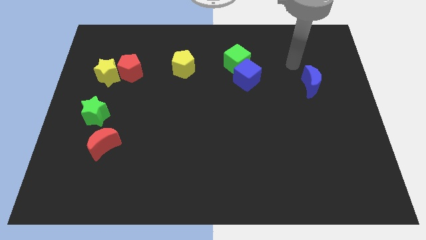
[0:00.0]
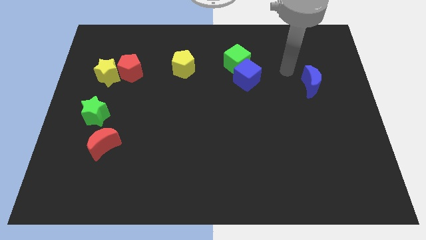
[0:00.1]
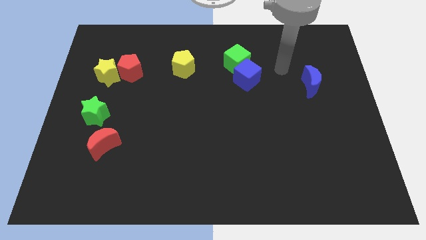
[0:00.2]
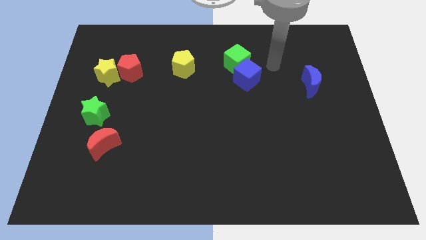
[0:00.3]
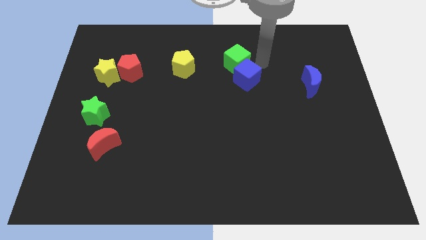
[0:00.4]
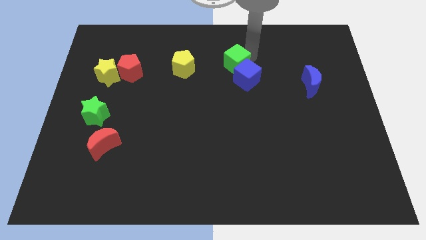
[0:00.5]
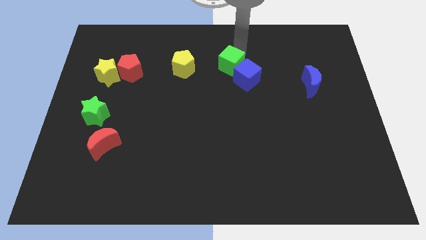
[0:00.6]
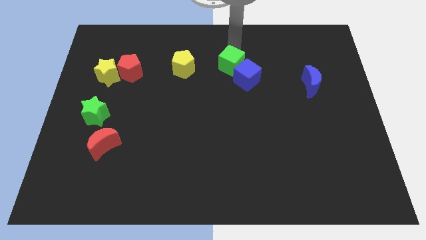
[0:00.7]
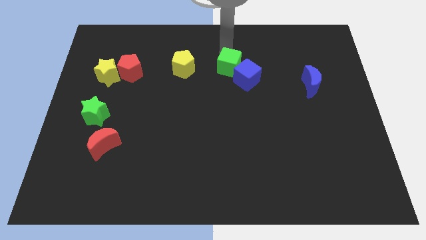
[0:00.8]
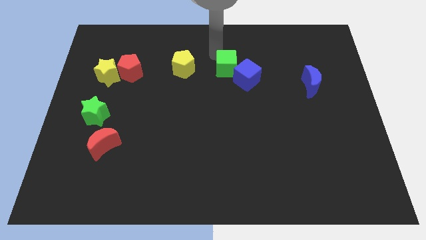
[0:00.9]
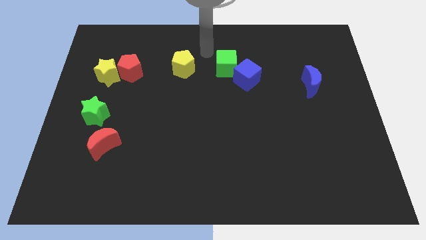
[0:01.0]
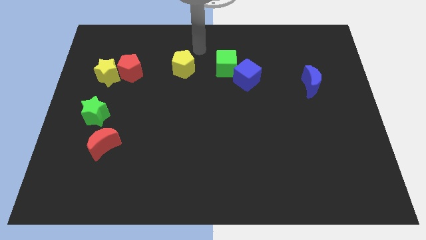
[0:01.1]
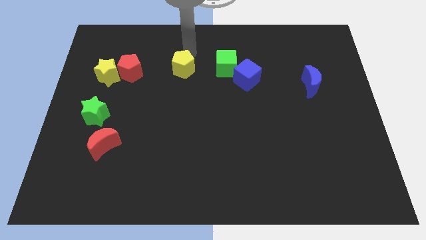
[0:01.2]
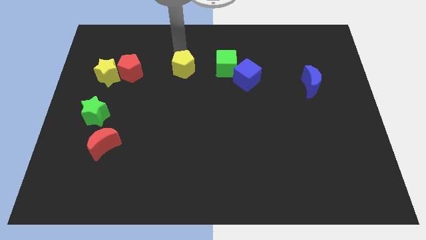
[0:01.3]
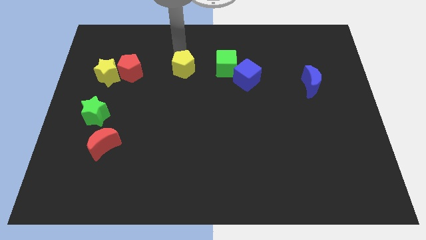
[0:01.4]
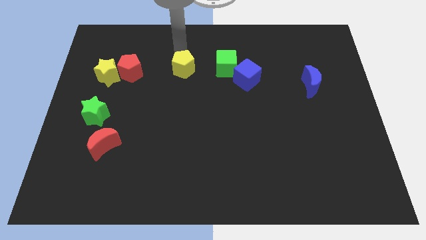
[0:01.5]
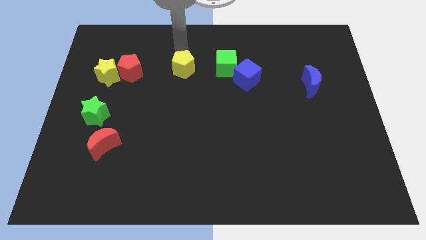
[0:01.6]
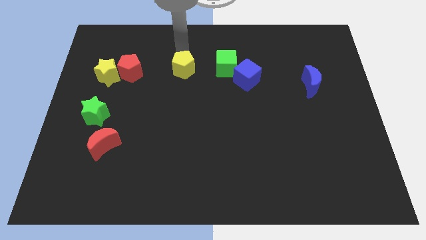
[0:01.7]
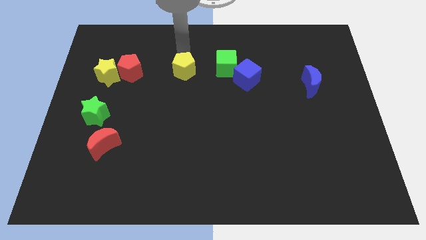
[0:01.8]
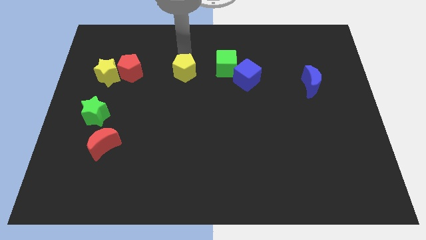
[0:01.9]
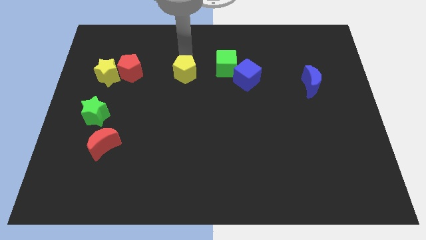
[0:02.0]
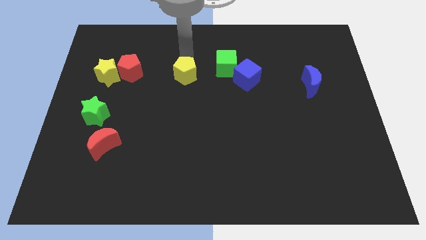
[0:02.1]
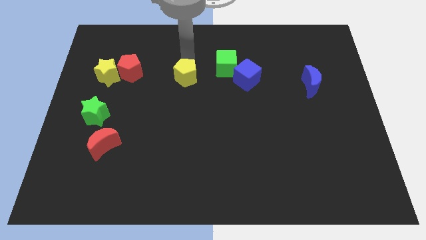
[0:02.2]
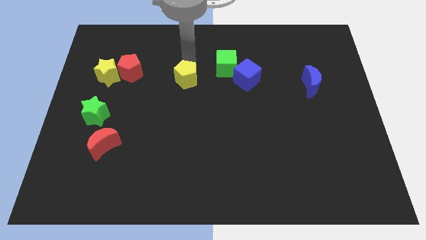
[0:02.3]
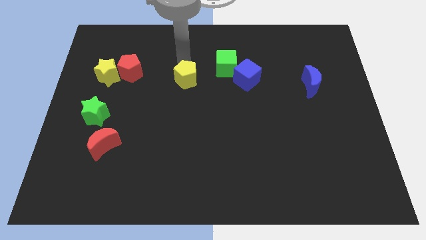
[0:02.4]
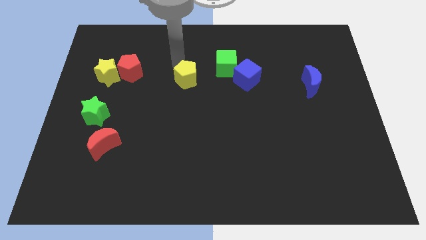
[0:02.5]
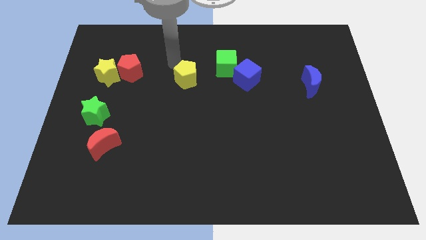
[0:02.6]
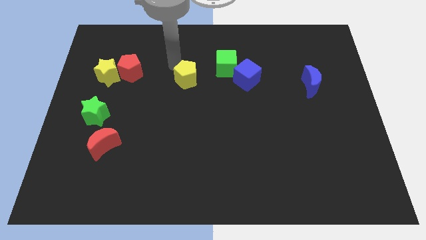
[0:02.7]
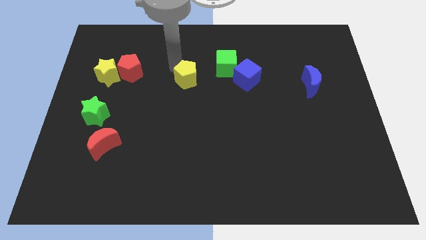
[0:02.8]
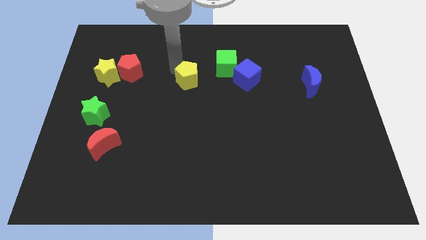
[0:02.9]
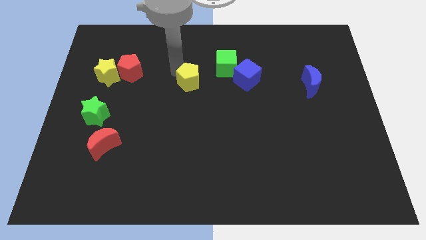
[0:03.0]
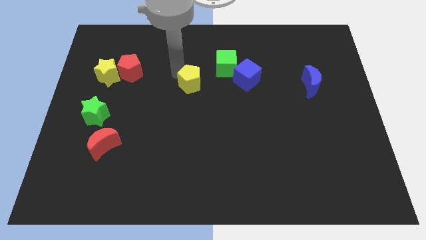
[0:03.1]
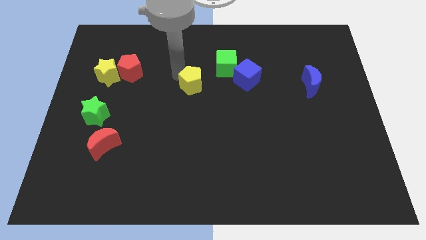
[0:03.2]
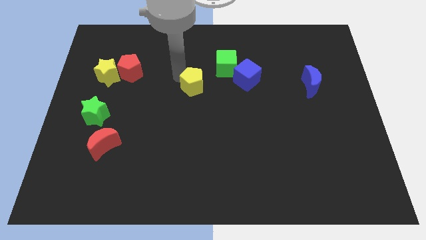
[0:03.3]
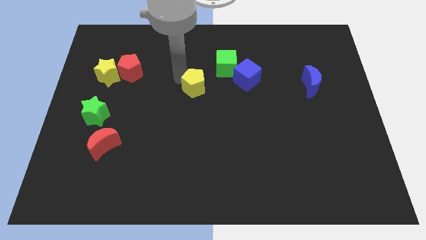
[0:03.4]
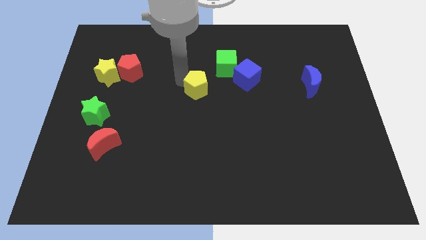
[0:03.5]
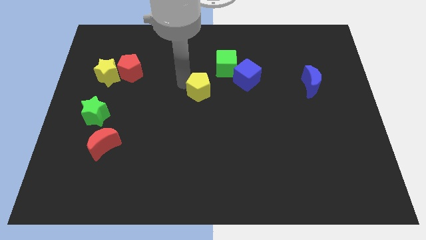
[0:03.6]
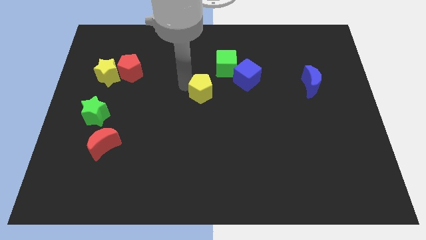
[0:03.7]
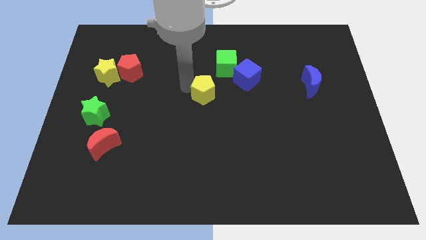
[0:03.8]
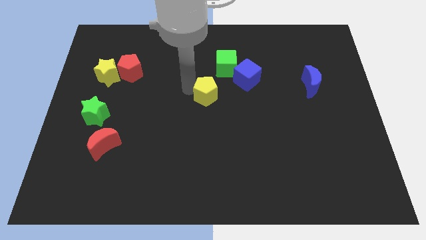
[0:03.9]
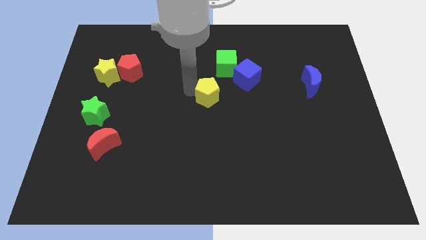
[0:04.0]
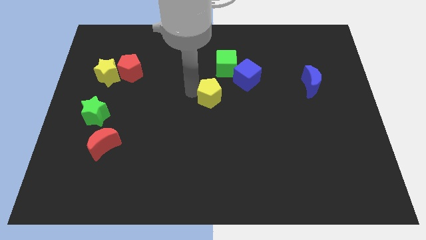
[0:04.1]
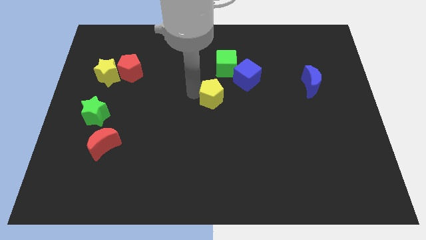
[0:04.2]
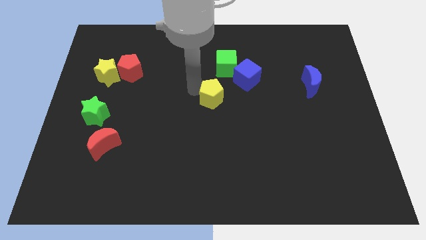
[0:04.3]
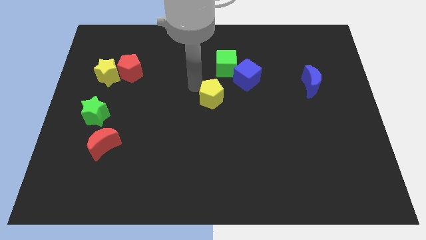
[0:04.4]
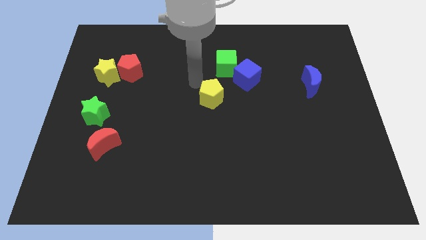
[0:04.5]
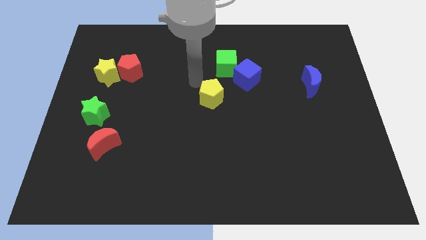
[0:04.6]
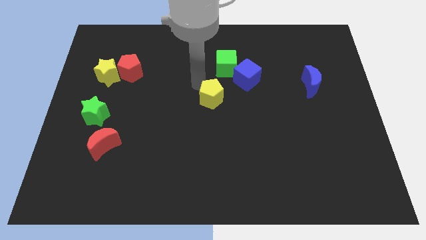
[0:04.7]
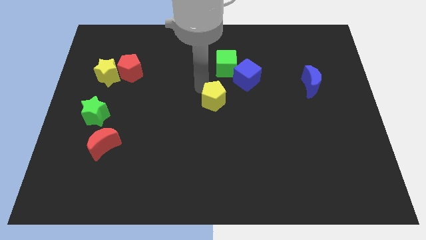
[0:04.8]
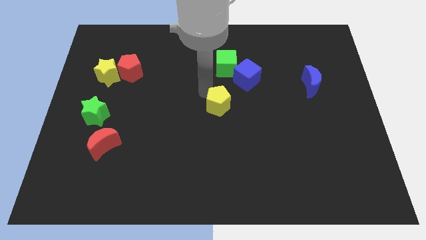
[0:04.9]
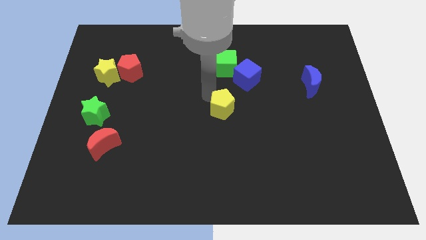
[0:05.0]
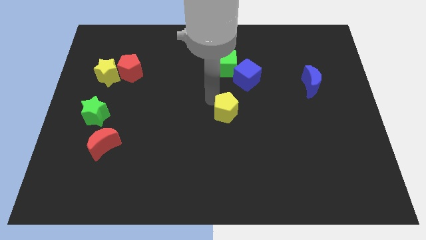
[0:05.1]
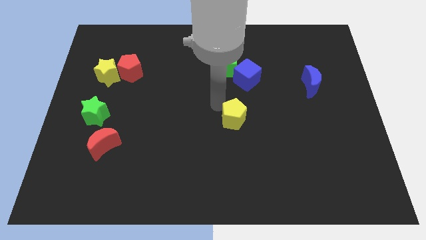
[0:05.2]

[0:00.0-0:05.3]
move the yellow pentagon downwards and right diagonally

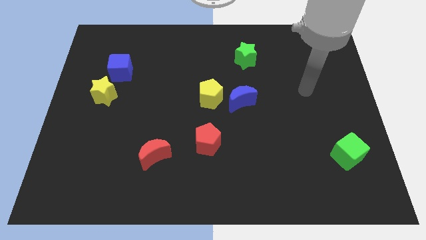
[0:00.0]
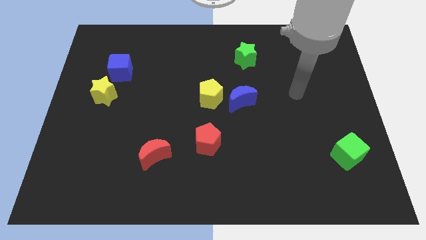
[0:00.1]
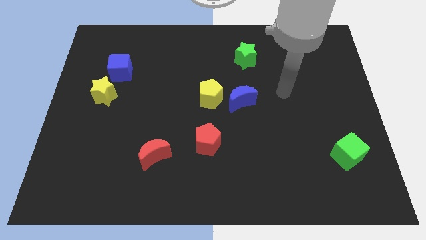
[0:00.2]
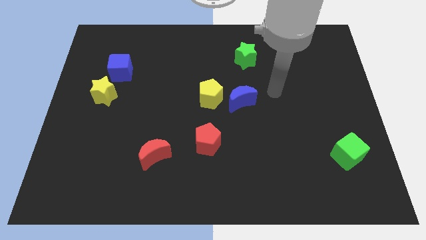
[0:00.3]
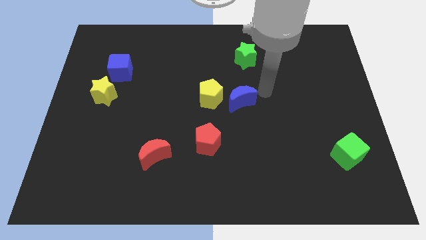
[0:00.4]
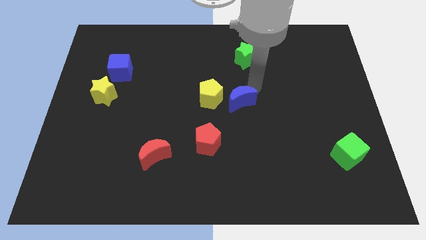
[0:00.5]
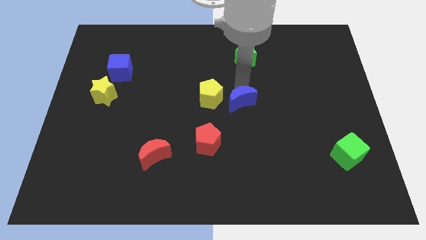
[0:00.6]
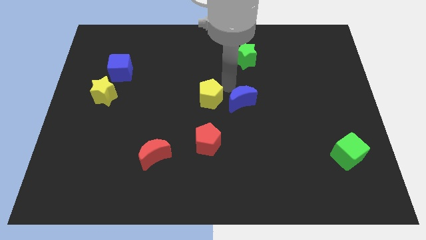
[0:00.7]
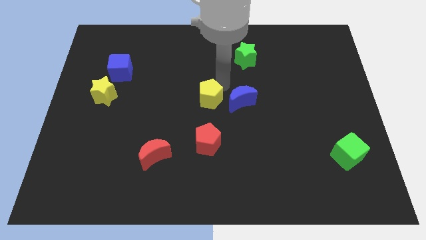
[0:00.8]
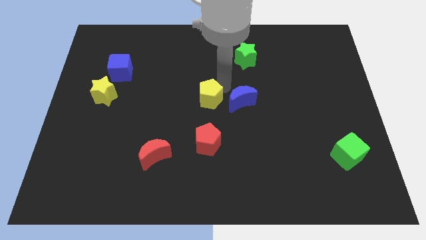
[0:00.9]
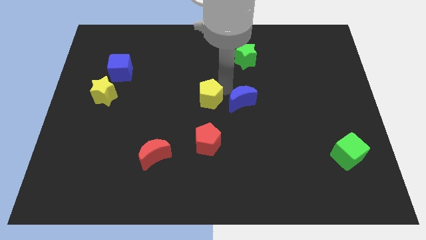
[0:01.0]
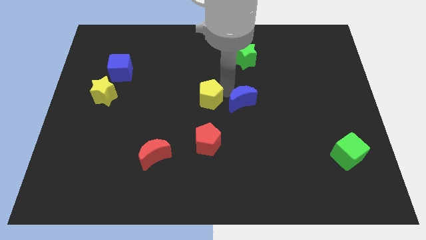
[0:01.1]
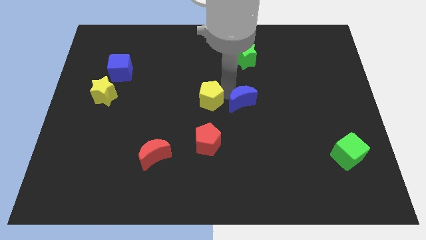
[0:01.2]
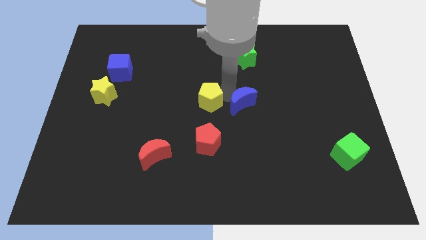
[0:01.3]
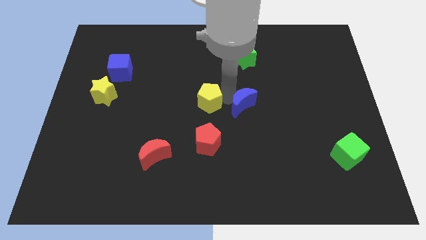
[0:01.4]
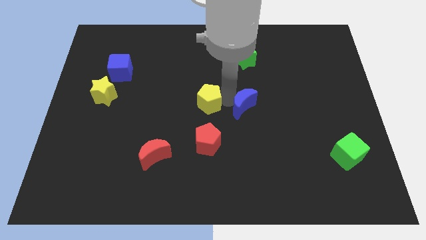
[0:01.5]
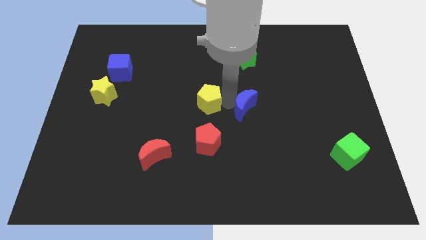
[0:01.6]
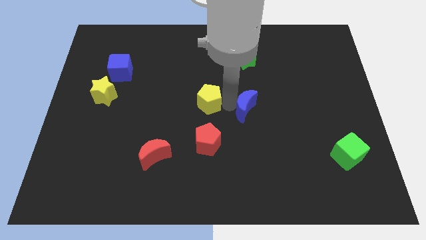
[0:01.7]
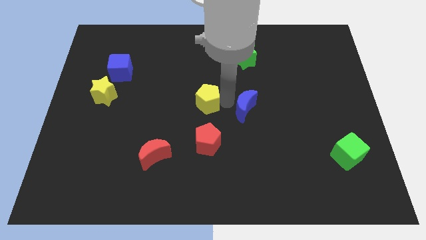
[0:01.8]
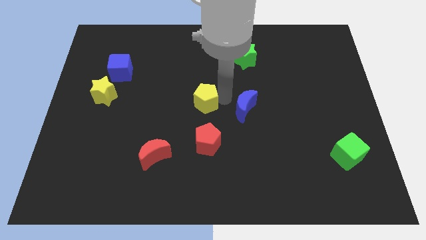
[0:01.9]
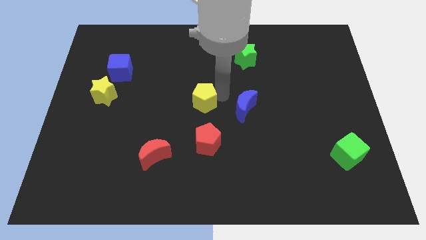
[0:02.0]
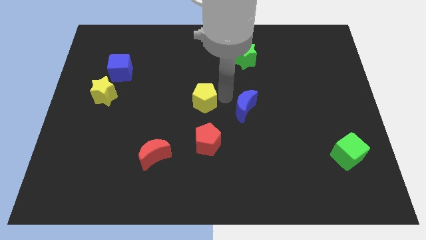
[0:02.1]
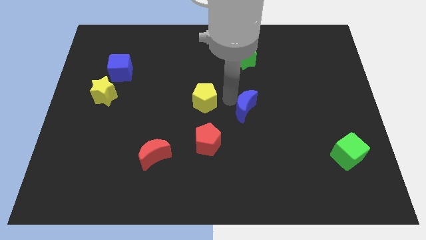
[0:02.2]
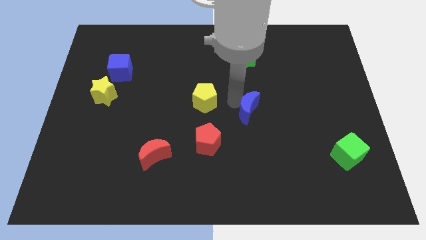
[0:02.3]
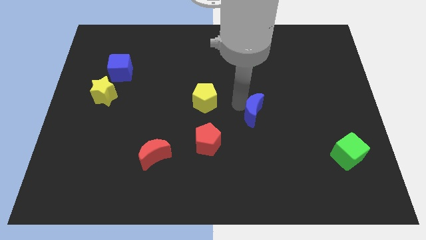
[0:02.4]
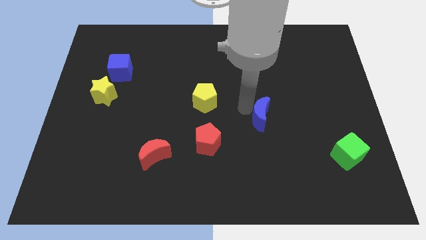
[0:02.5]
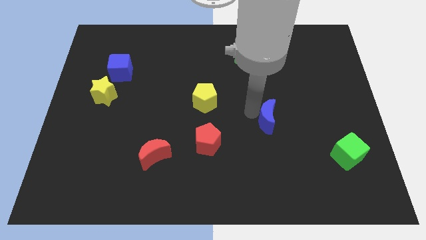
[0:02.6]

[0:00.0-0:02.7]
slightly slide the blue moon diagonally down and to the right
